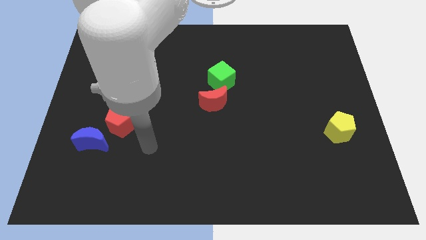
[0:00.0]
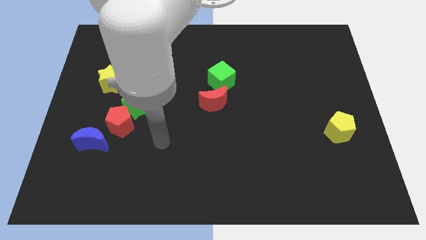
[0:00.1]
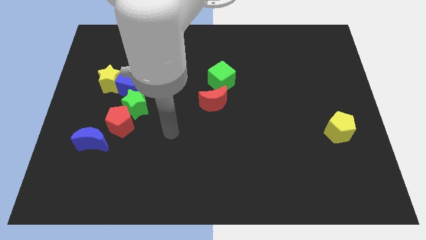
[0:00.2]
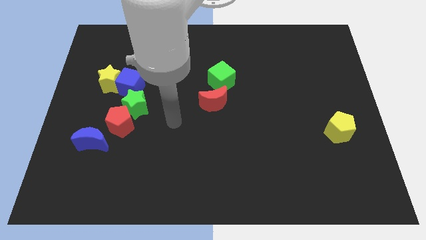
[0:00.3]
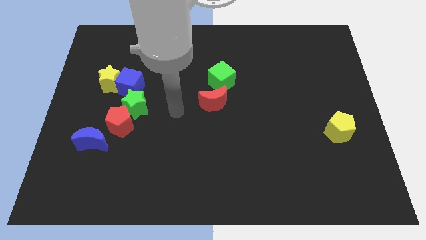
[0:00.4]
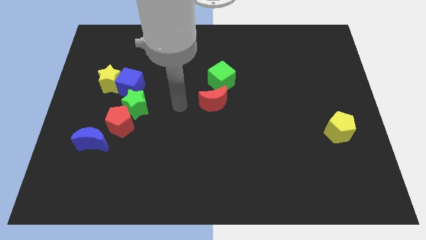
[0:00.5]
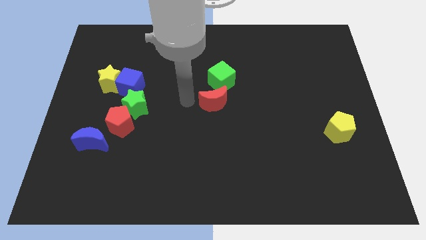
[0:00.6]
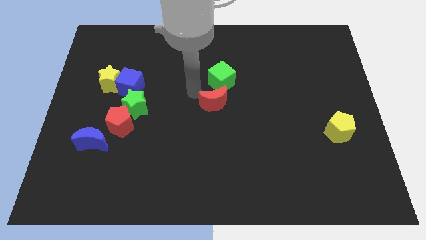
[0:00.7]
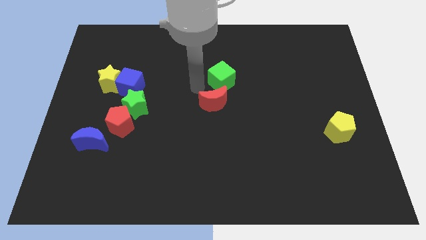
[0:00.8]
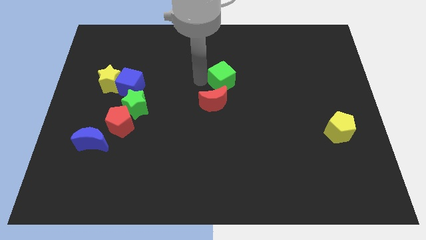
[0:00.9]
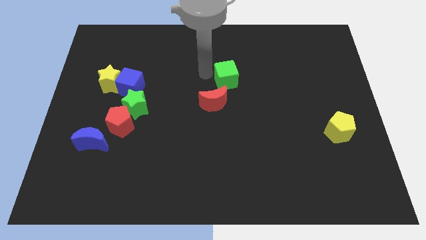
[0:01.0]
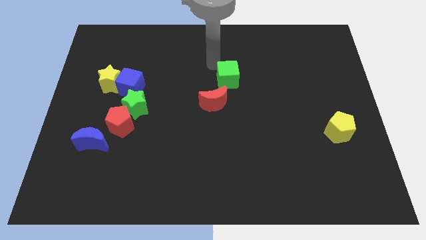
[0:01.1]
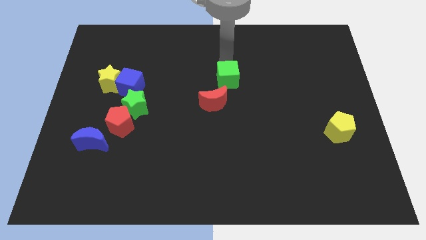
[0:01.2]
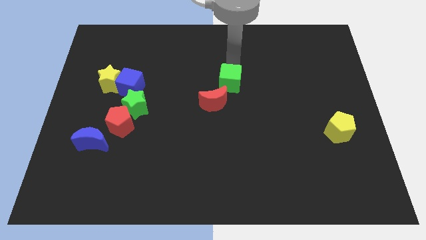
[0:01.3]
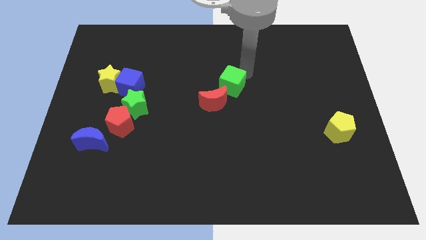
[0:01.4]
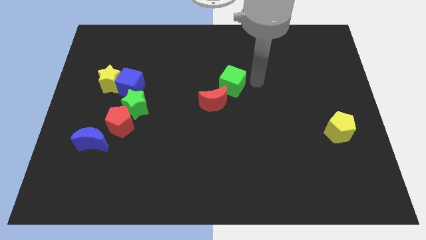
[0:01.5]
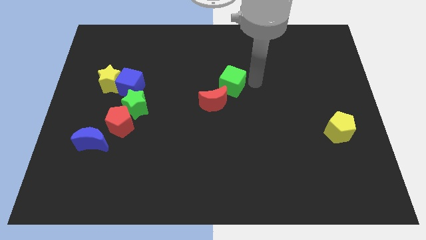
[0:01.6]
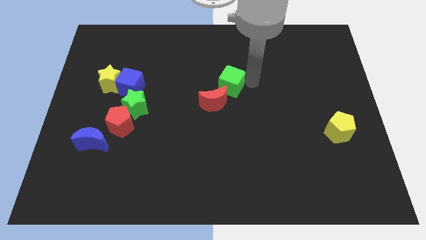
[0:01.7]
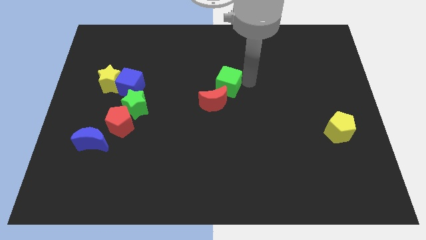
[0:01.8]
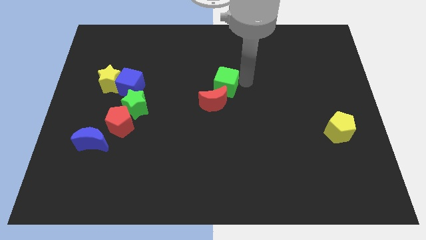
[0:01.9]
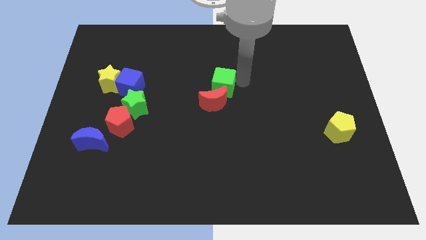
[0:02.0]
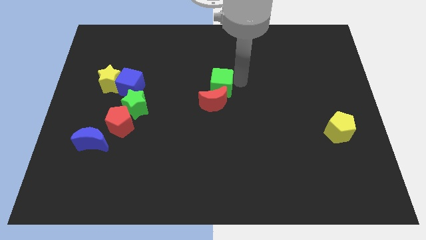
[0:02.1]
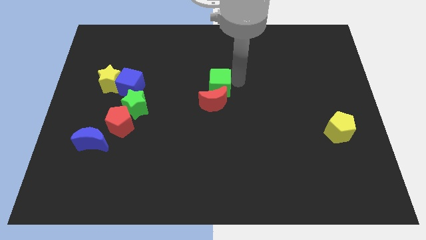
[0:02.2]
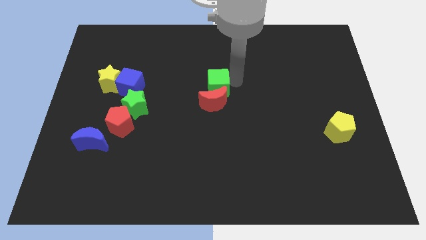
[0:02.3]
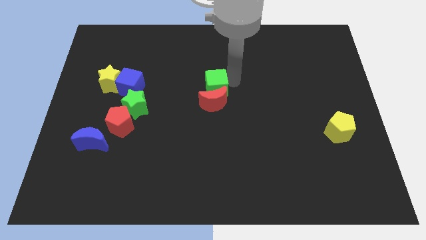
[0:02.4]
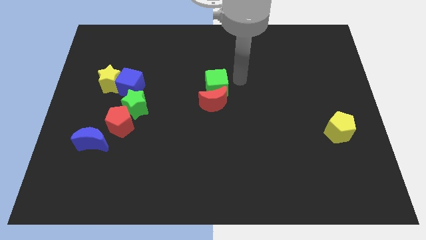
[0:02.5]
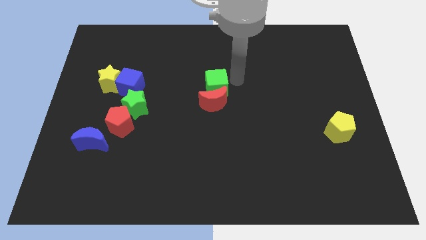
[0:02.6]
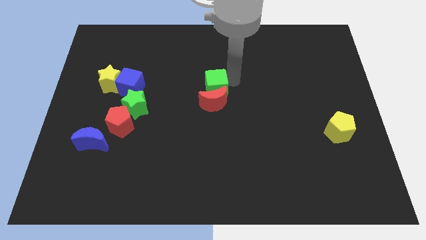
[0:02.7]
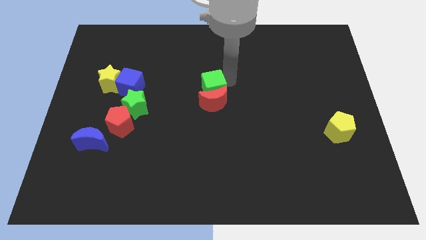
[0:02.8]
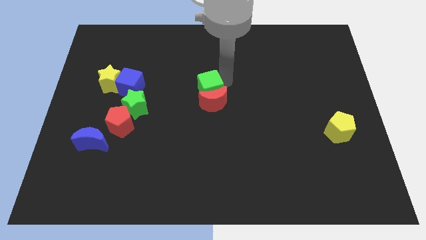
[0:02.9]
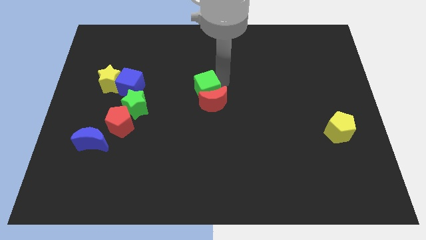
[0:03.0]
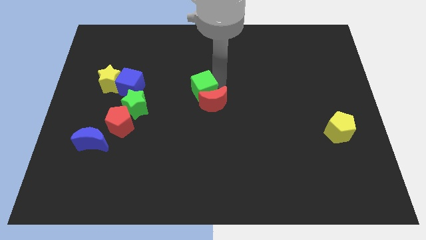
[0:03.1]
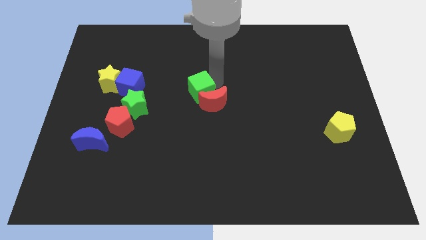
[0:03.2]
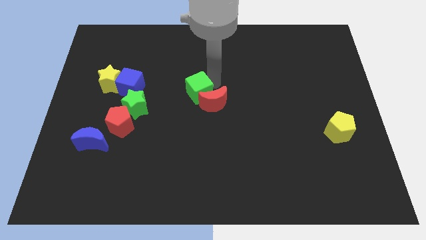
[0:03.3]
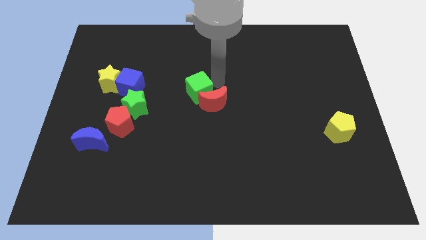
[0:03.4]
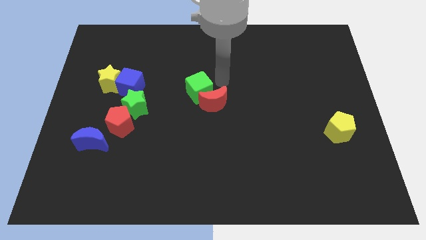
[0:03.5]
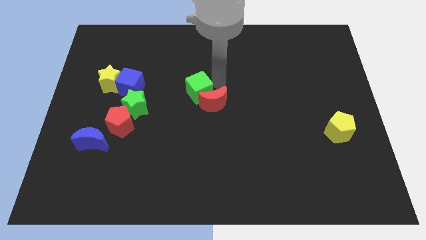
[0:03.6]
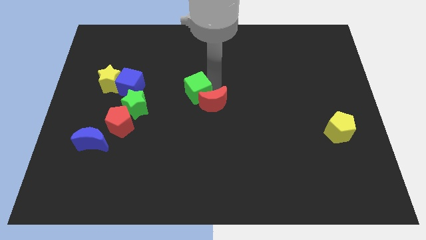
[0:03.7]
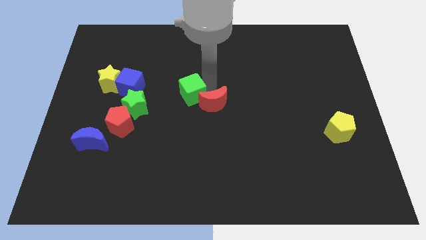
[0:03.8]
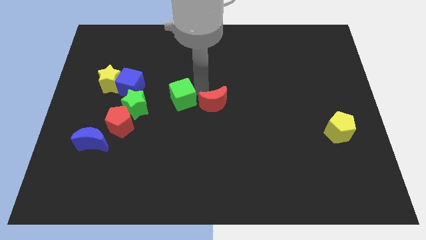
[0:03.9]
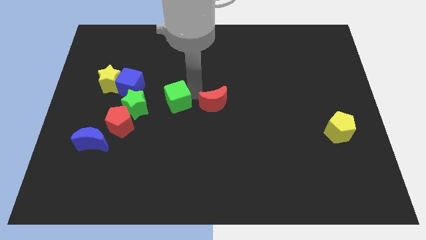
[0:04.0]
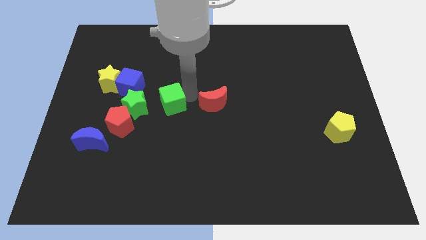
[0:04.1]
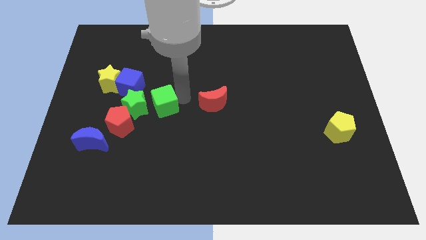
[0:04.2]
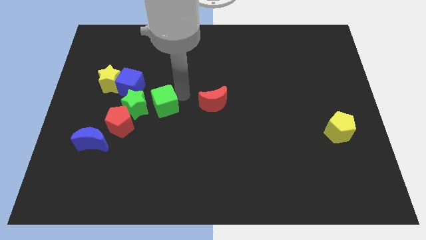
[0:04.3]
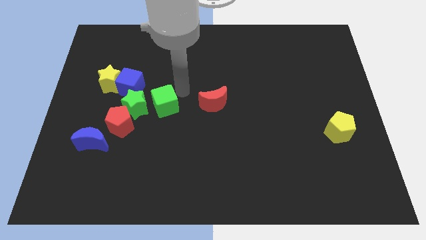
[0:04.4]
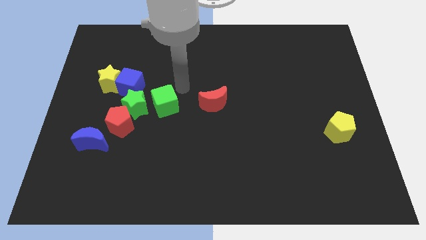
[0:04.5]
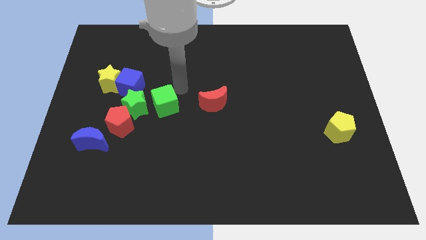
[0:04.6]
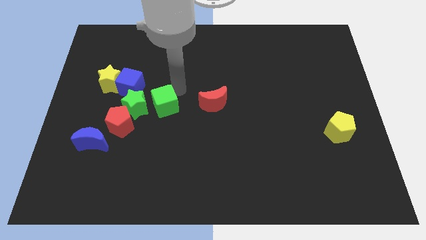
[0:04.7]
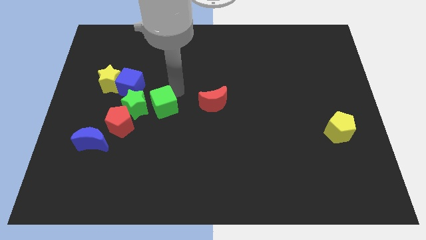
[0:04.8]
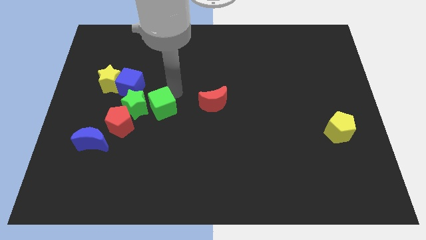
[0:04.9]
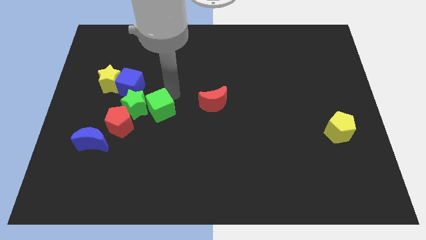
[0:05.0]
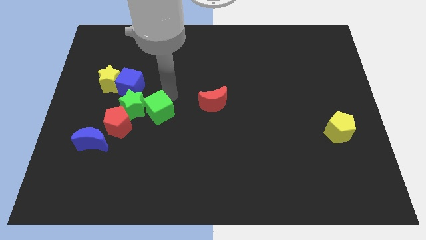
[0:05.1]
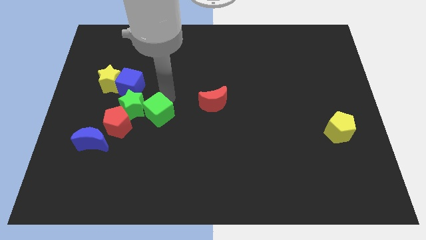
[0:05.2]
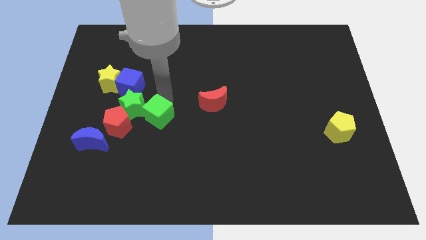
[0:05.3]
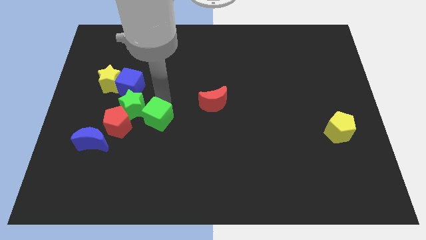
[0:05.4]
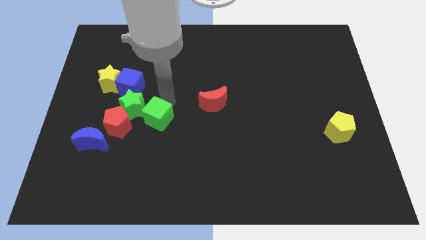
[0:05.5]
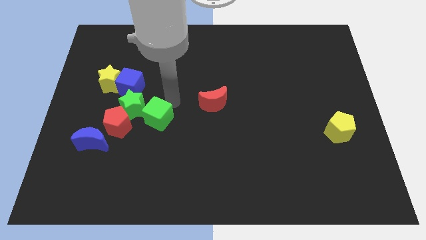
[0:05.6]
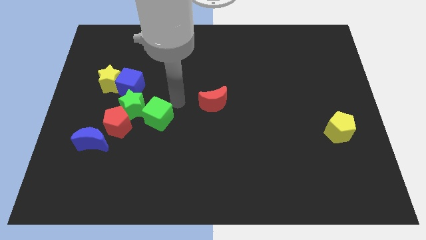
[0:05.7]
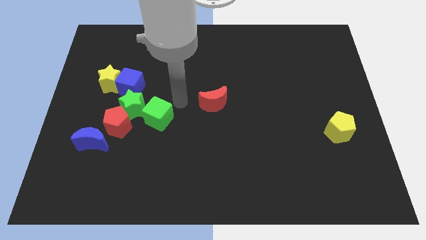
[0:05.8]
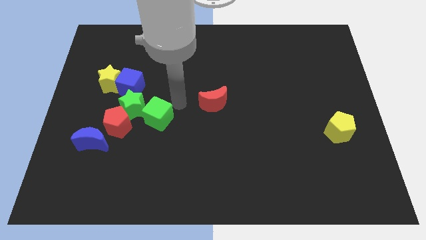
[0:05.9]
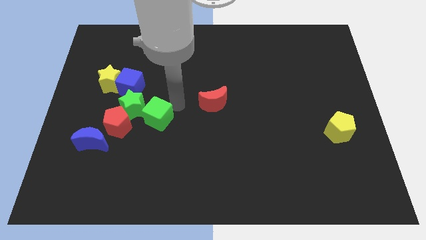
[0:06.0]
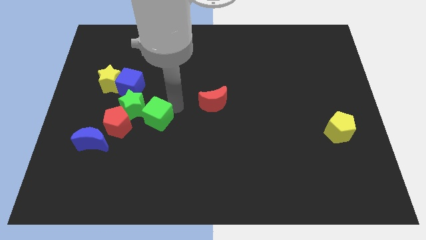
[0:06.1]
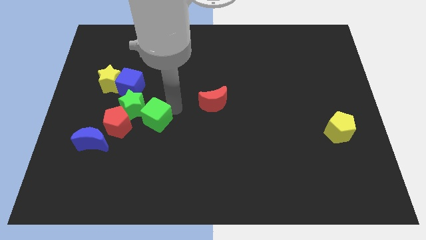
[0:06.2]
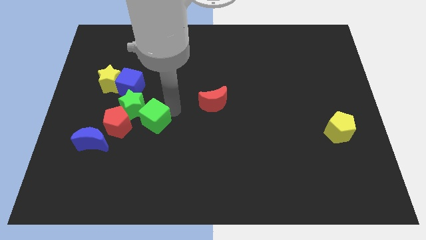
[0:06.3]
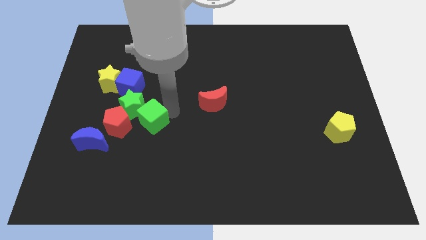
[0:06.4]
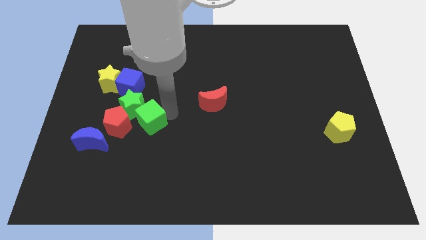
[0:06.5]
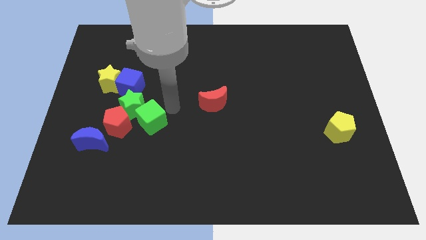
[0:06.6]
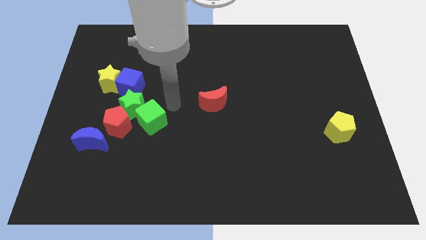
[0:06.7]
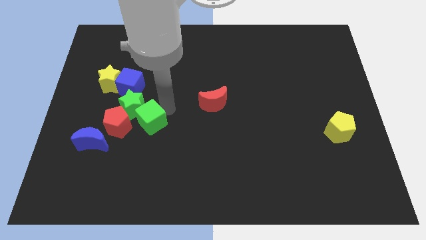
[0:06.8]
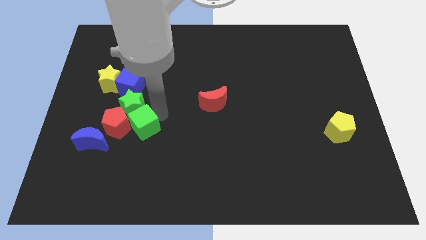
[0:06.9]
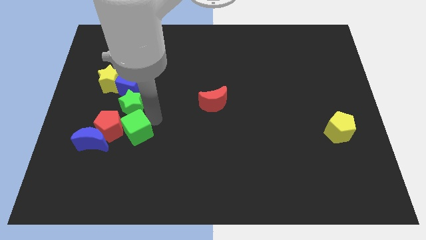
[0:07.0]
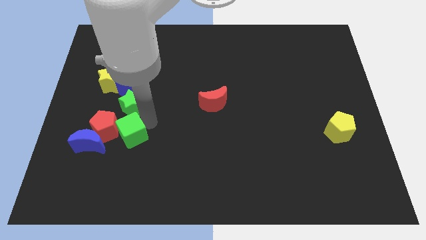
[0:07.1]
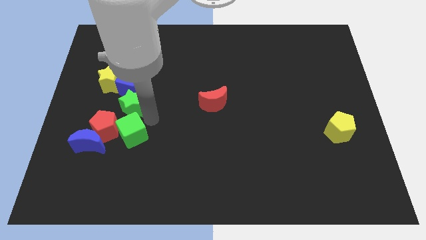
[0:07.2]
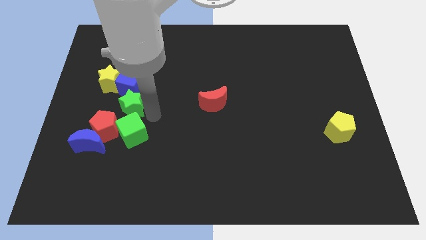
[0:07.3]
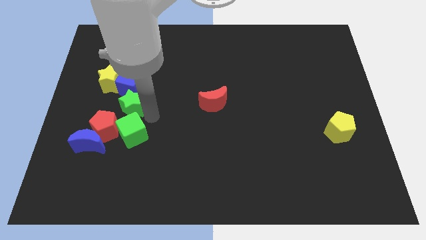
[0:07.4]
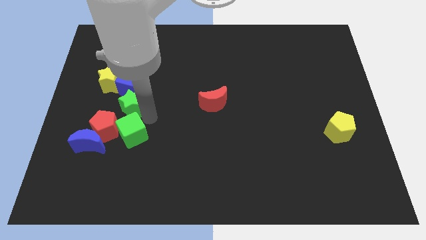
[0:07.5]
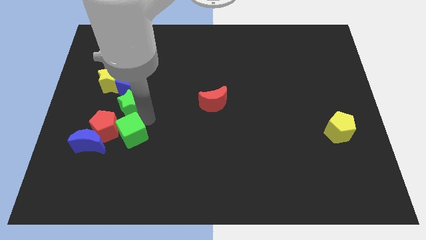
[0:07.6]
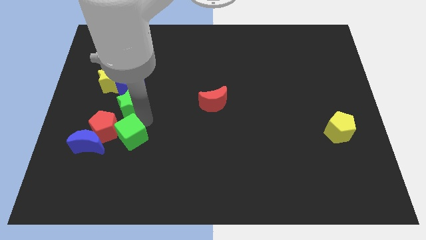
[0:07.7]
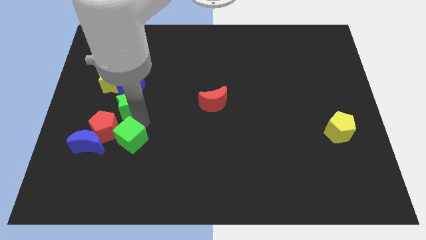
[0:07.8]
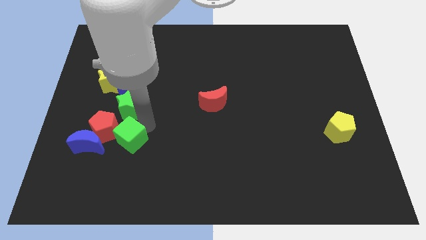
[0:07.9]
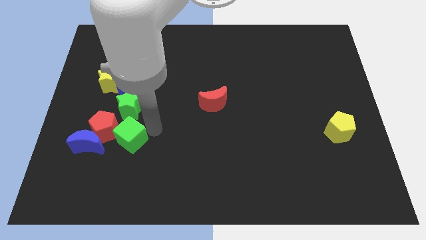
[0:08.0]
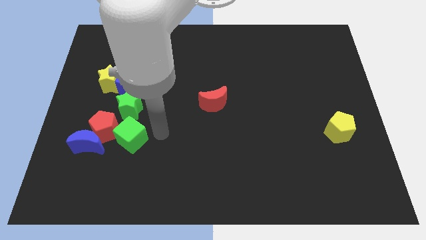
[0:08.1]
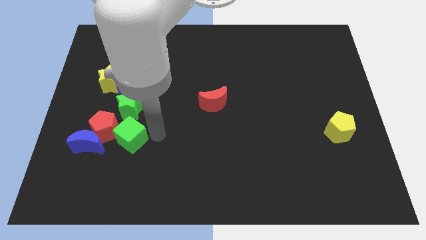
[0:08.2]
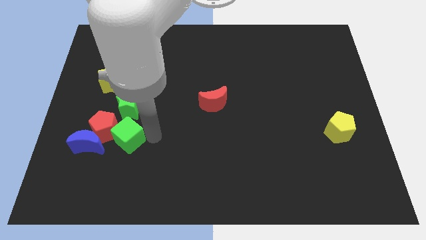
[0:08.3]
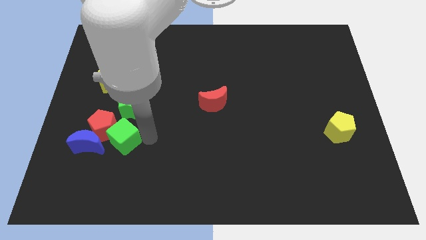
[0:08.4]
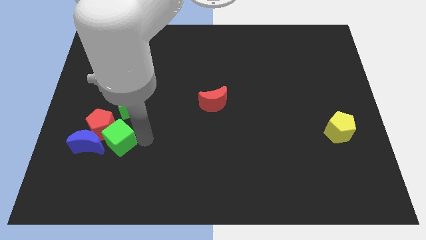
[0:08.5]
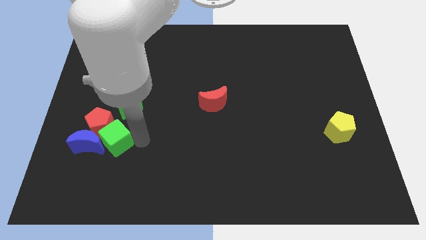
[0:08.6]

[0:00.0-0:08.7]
push the green cube to the blue moon
